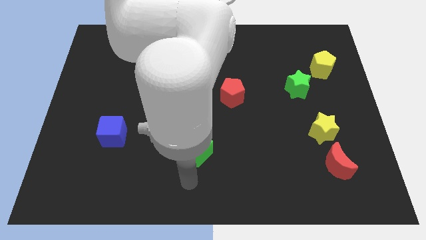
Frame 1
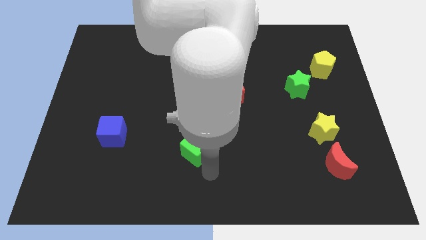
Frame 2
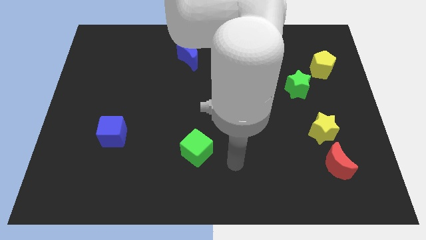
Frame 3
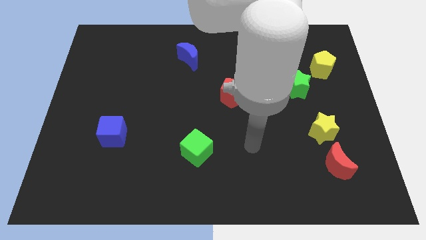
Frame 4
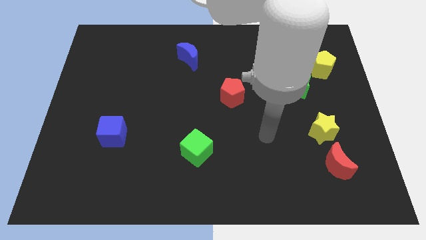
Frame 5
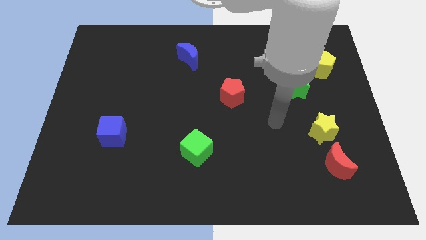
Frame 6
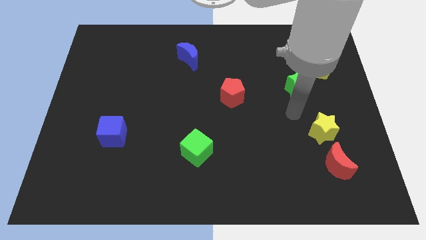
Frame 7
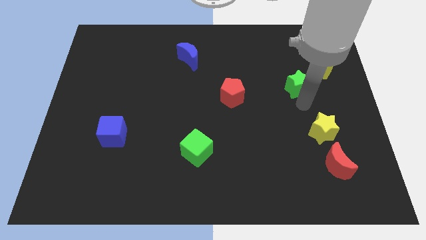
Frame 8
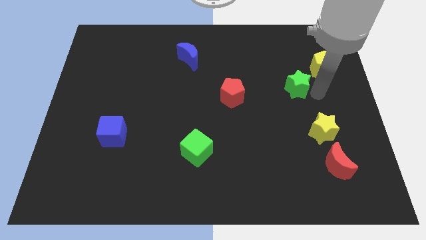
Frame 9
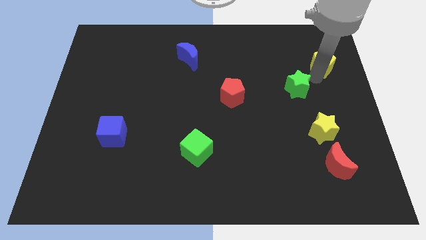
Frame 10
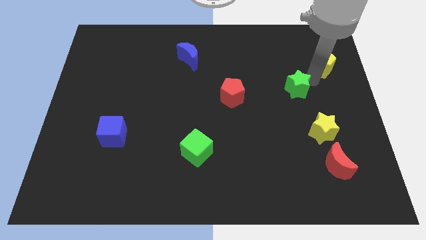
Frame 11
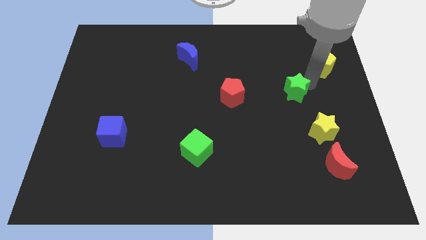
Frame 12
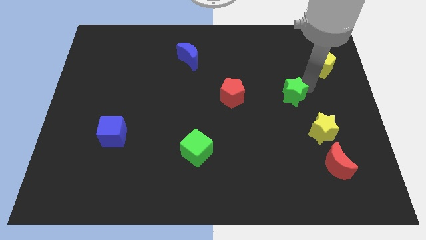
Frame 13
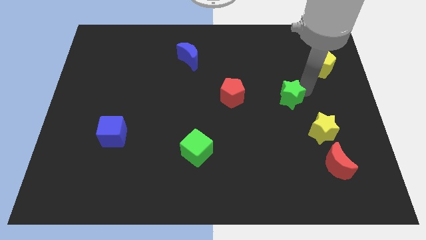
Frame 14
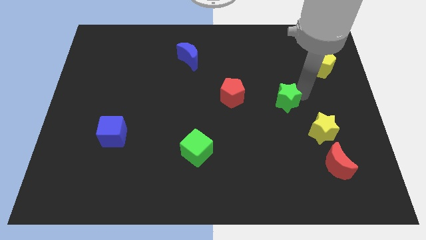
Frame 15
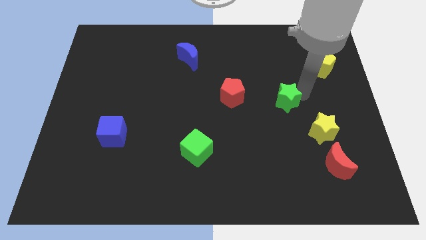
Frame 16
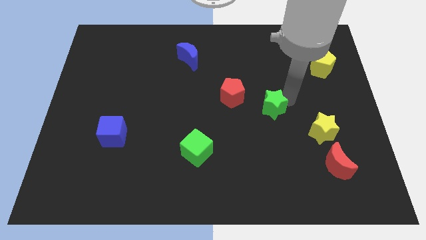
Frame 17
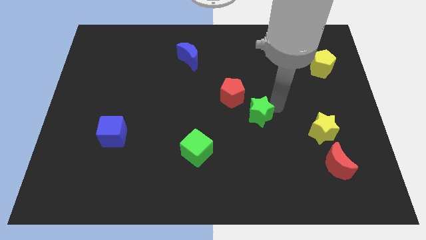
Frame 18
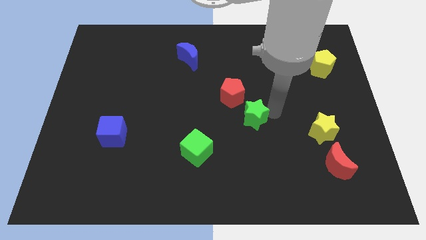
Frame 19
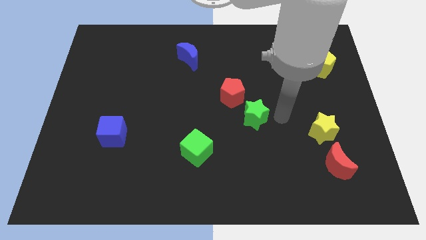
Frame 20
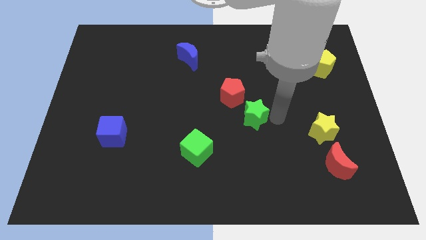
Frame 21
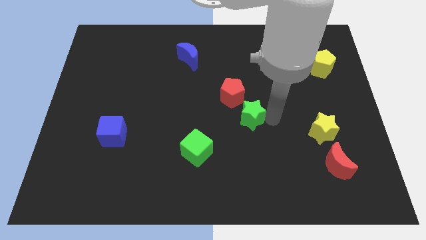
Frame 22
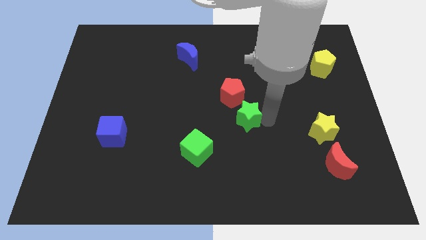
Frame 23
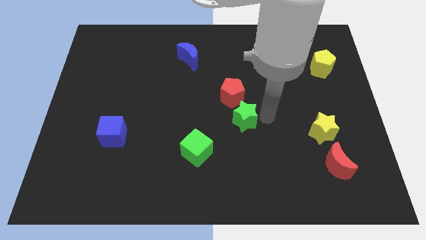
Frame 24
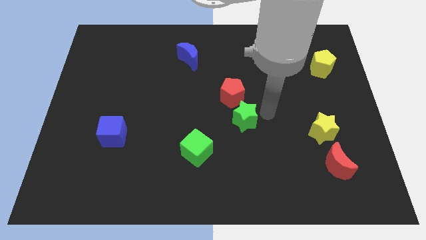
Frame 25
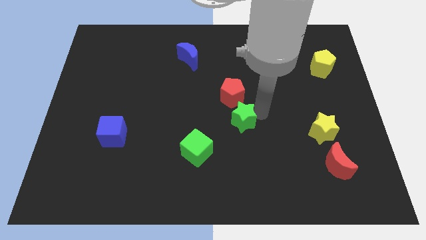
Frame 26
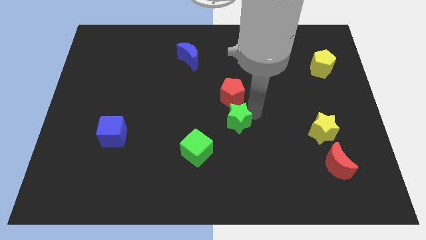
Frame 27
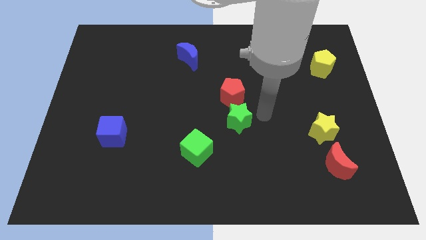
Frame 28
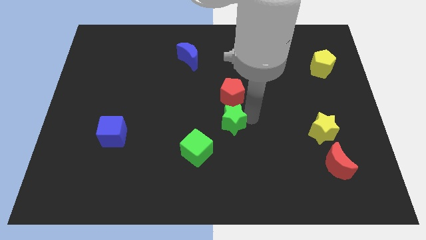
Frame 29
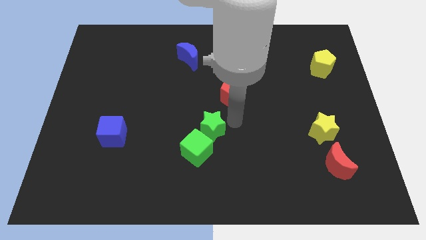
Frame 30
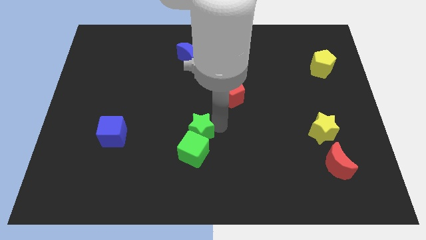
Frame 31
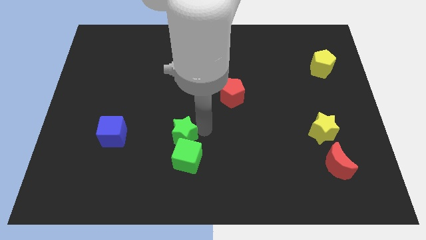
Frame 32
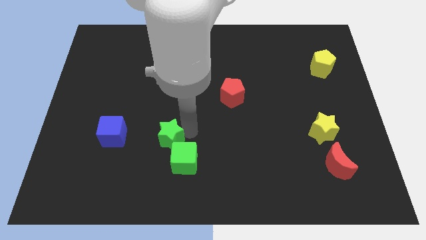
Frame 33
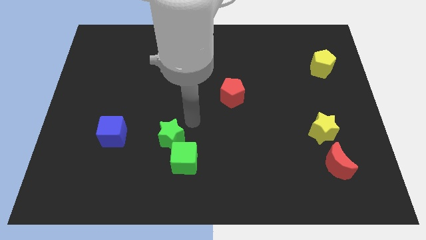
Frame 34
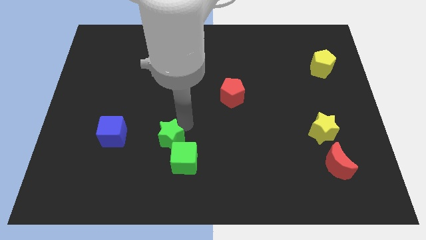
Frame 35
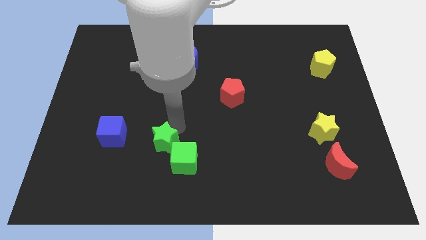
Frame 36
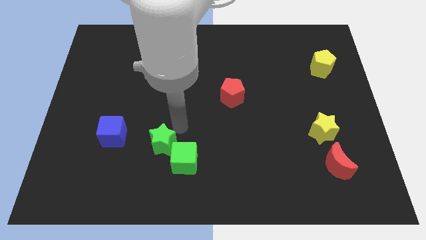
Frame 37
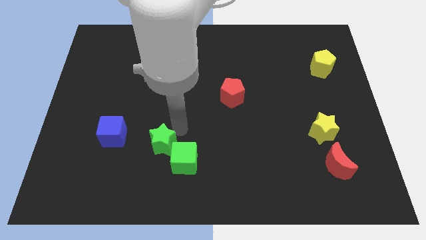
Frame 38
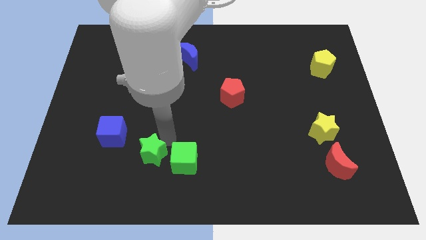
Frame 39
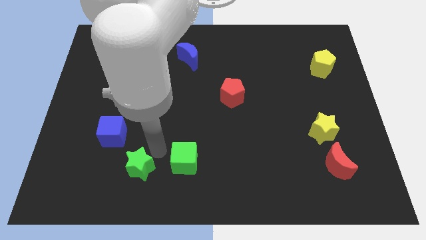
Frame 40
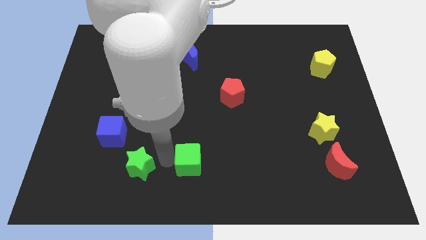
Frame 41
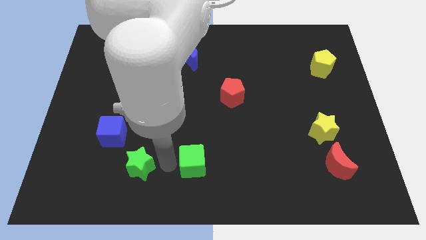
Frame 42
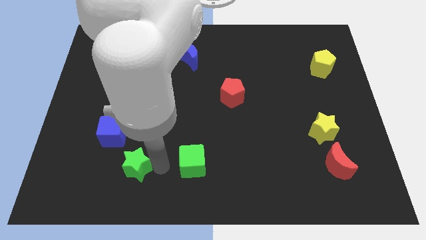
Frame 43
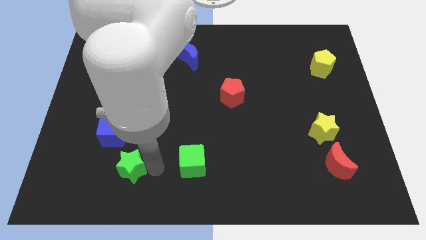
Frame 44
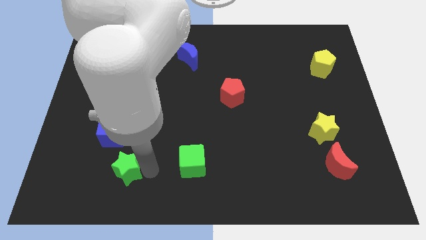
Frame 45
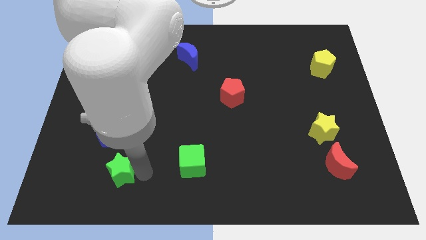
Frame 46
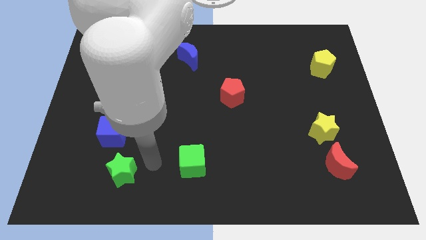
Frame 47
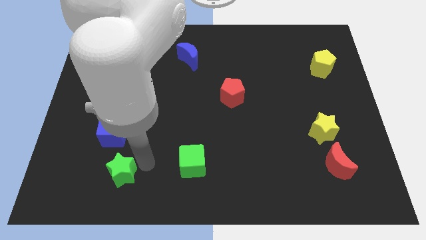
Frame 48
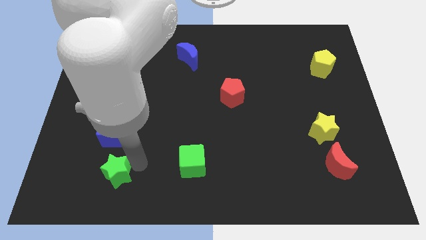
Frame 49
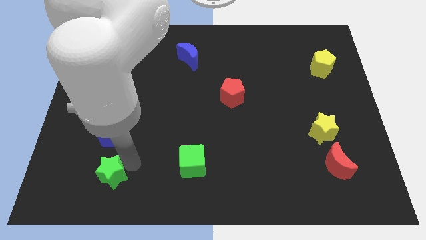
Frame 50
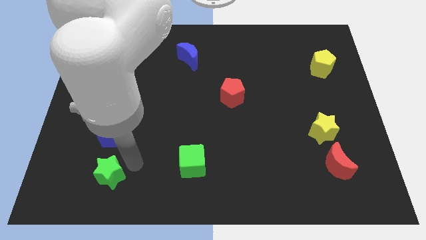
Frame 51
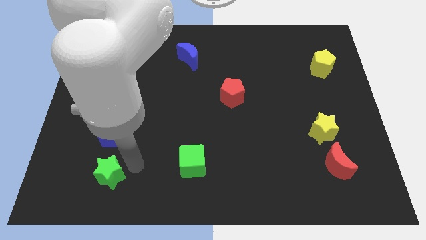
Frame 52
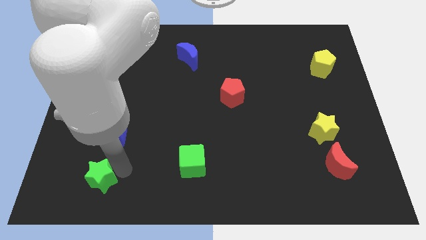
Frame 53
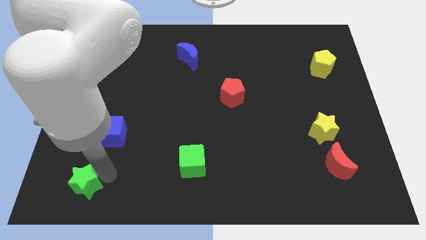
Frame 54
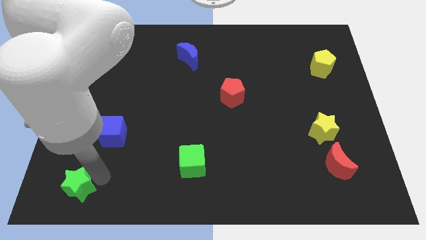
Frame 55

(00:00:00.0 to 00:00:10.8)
move the green star to the bottom left corner
